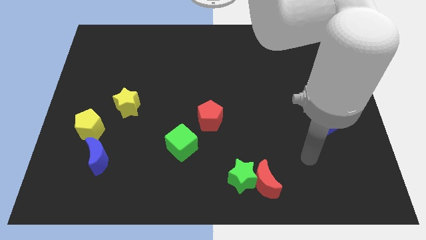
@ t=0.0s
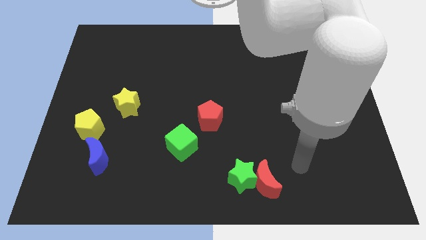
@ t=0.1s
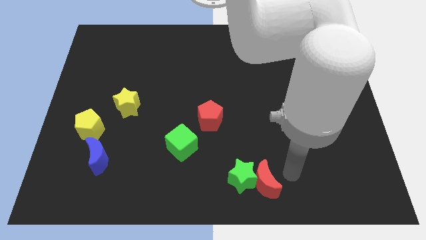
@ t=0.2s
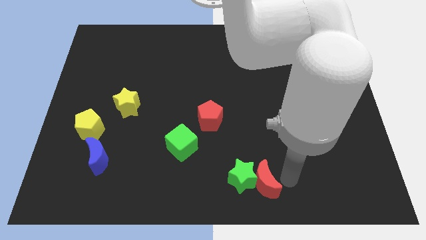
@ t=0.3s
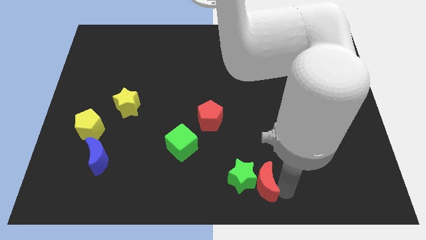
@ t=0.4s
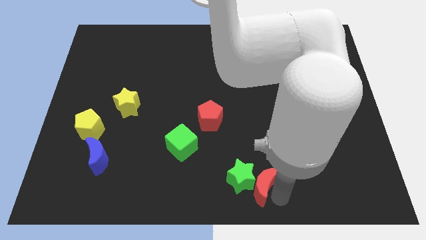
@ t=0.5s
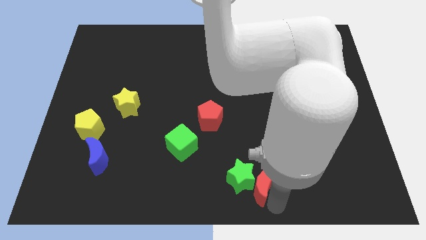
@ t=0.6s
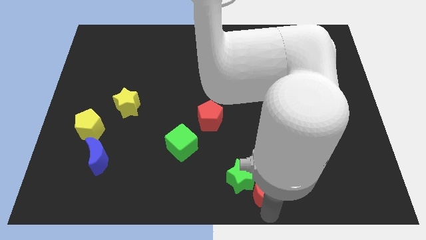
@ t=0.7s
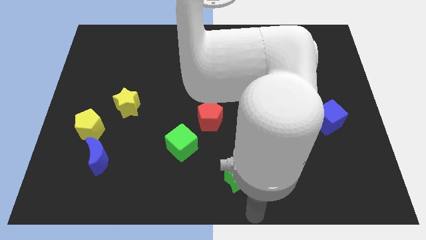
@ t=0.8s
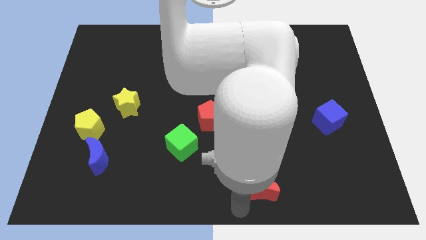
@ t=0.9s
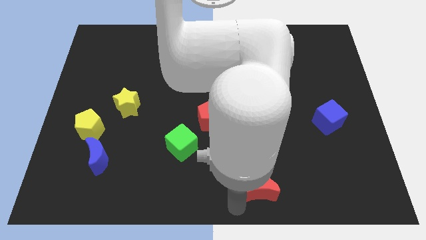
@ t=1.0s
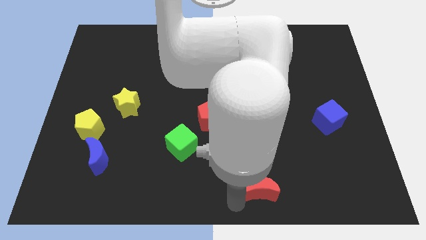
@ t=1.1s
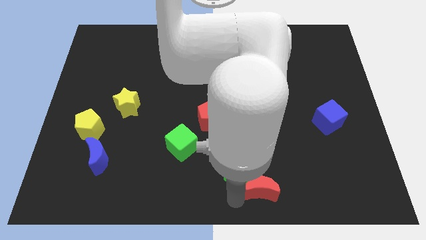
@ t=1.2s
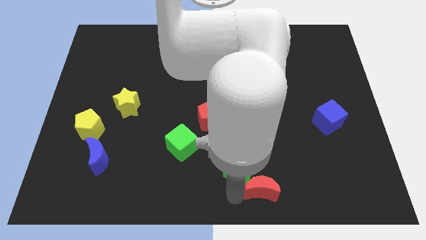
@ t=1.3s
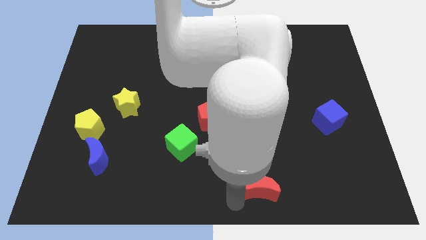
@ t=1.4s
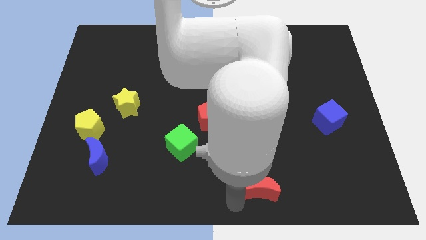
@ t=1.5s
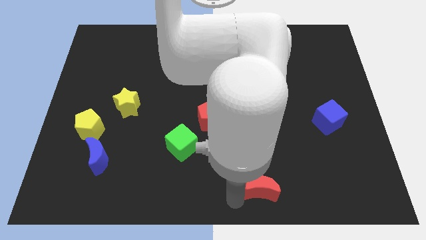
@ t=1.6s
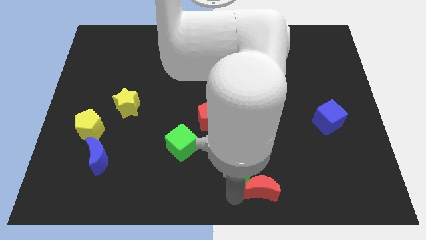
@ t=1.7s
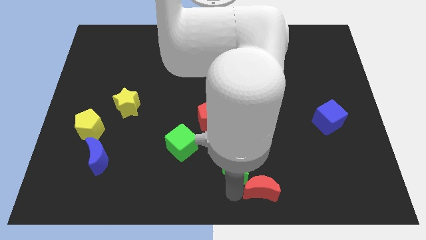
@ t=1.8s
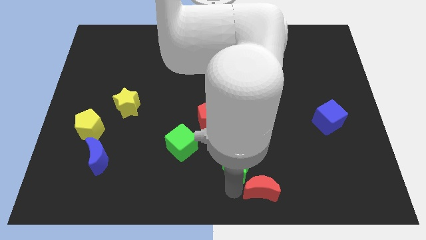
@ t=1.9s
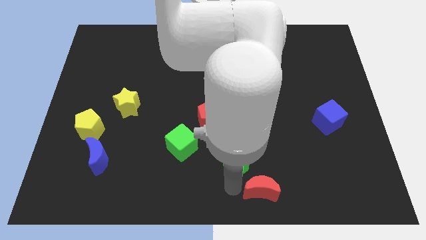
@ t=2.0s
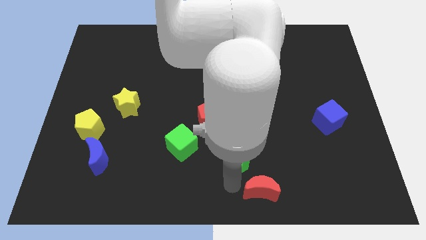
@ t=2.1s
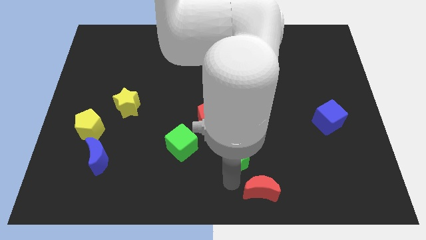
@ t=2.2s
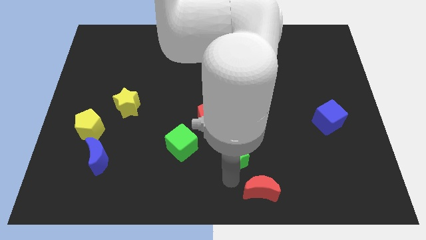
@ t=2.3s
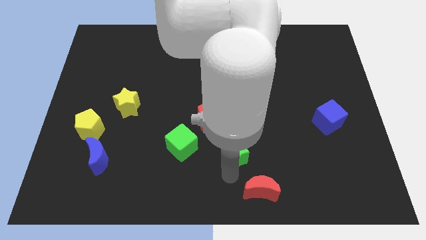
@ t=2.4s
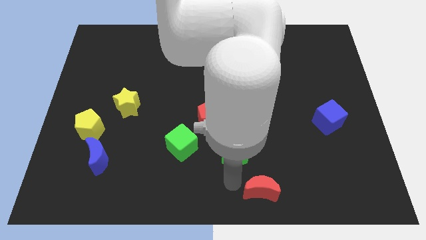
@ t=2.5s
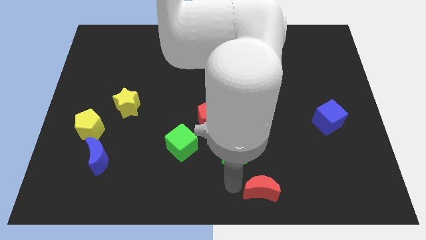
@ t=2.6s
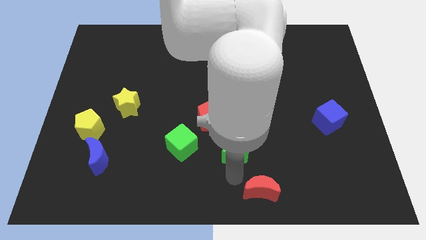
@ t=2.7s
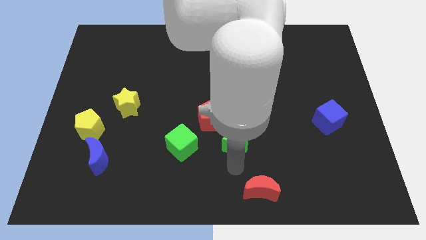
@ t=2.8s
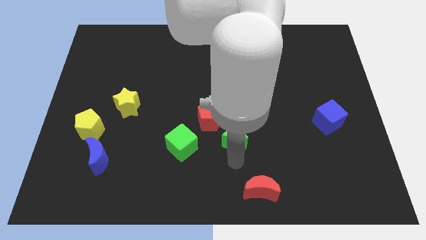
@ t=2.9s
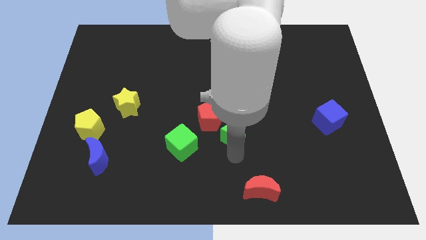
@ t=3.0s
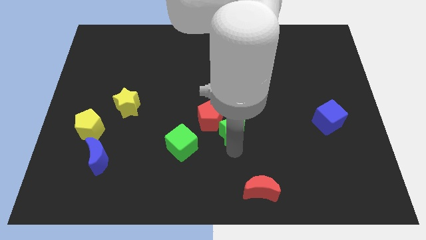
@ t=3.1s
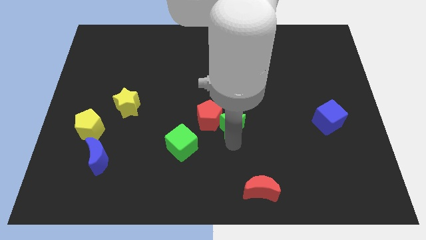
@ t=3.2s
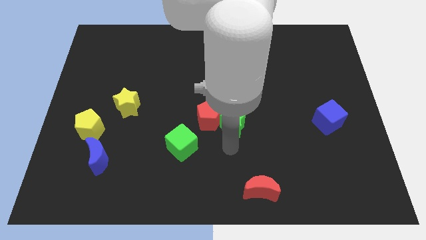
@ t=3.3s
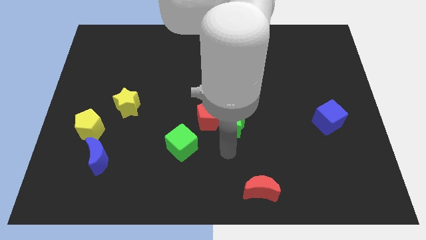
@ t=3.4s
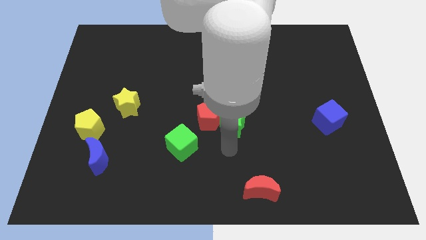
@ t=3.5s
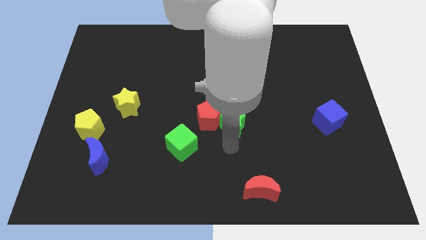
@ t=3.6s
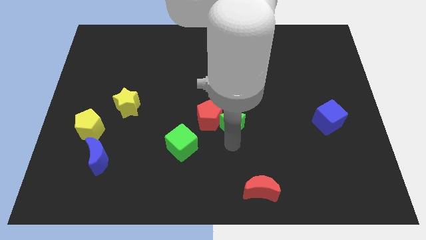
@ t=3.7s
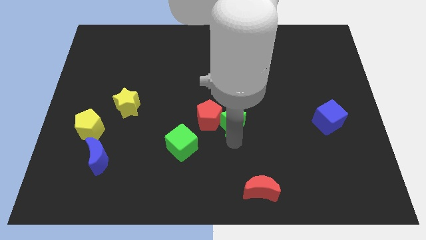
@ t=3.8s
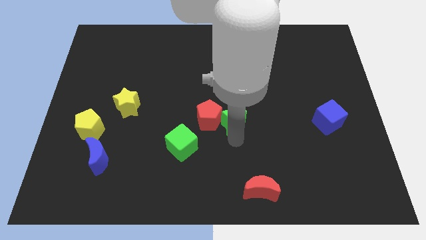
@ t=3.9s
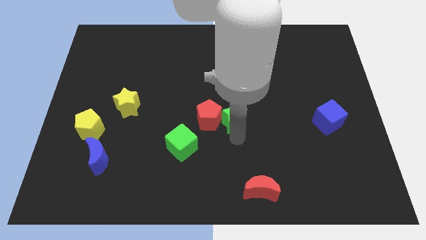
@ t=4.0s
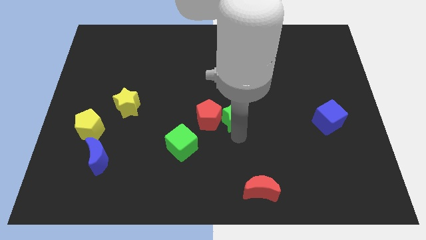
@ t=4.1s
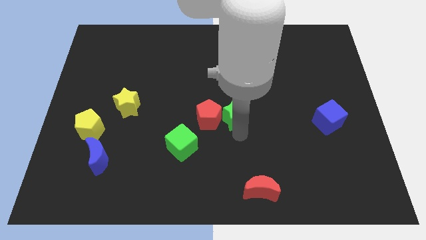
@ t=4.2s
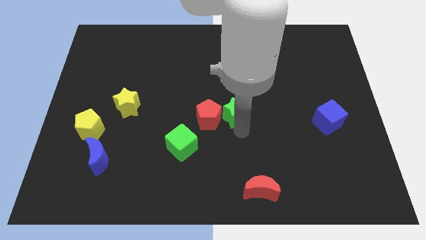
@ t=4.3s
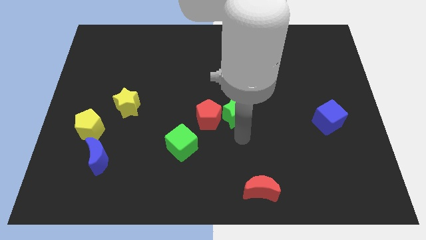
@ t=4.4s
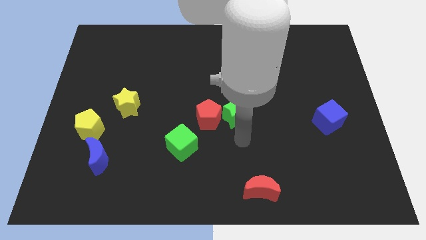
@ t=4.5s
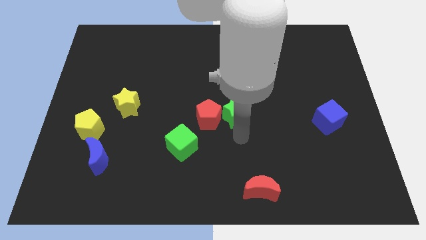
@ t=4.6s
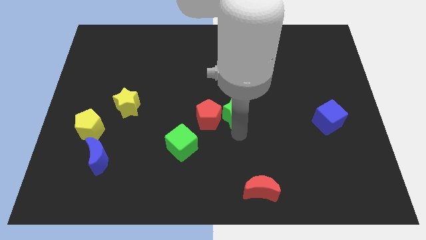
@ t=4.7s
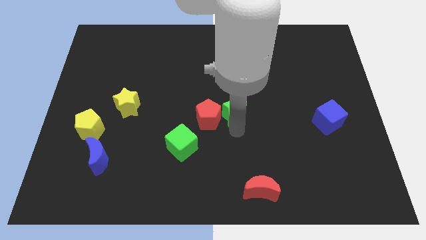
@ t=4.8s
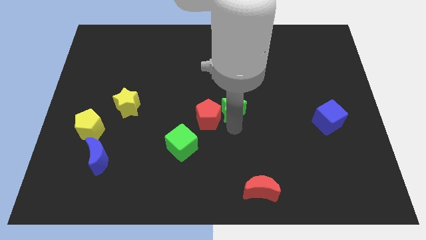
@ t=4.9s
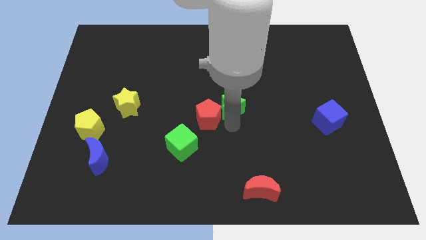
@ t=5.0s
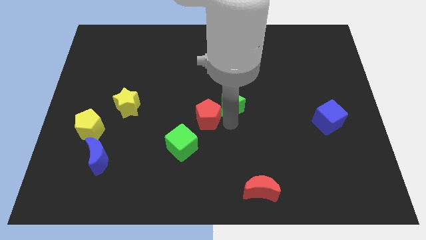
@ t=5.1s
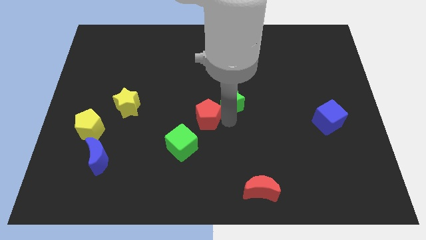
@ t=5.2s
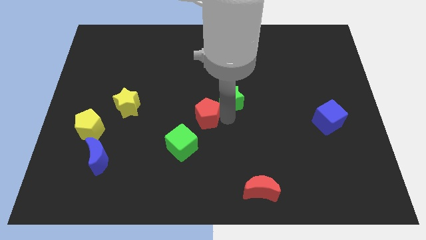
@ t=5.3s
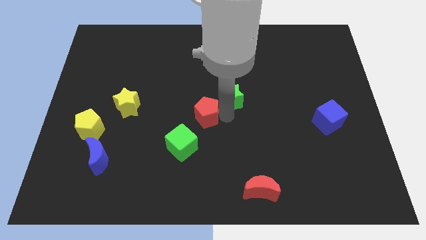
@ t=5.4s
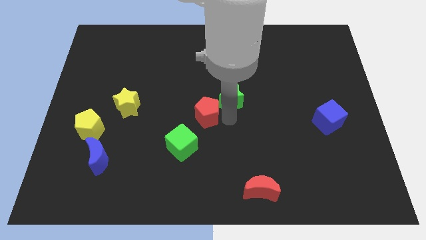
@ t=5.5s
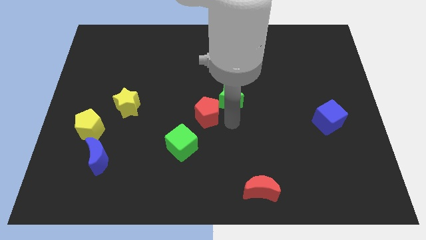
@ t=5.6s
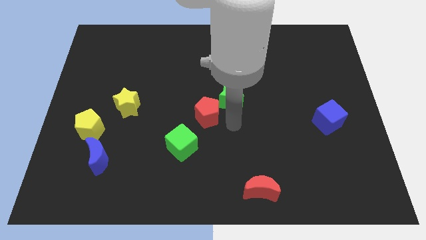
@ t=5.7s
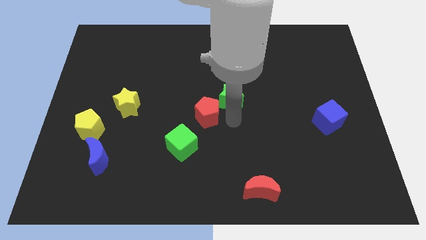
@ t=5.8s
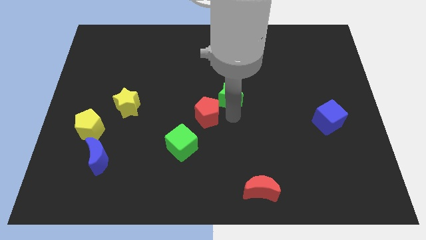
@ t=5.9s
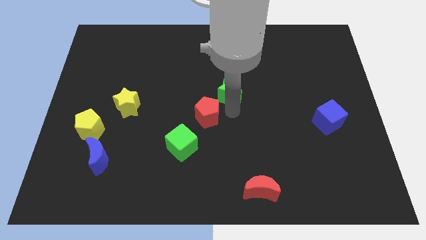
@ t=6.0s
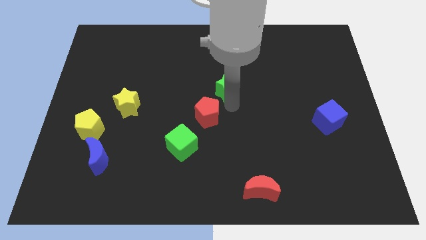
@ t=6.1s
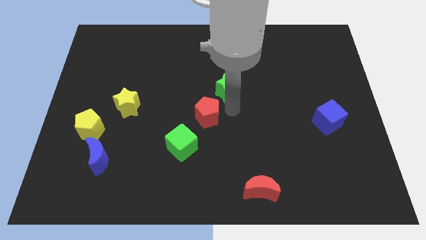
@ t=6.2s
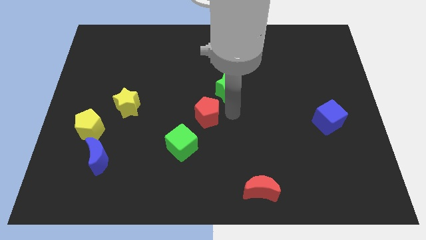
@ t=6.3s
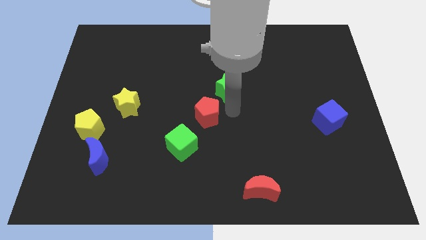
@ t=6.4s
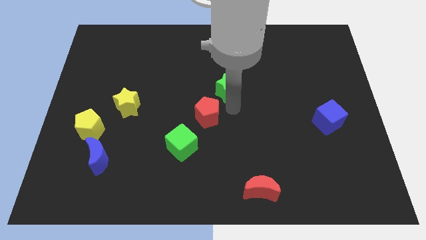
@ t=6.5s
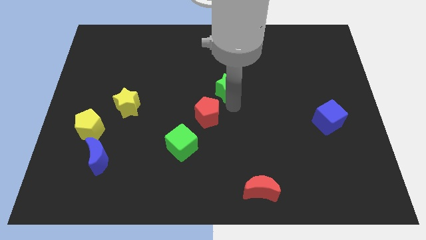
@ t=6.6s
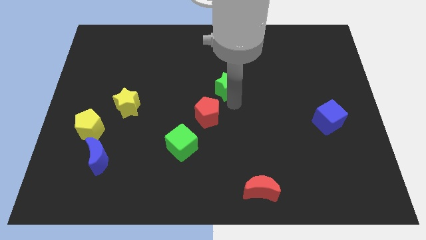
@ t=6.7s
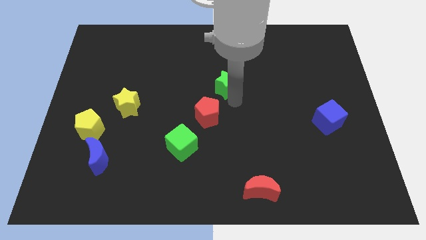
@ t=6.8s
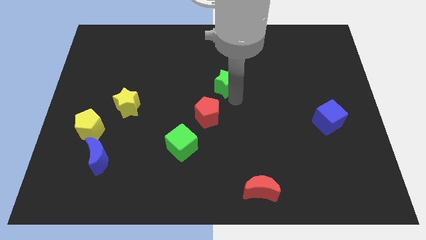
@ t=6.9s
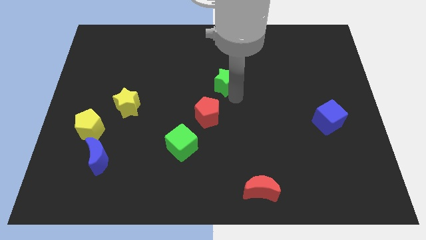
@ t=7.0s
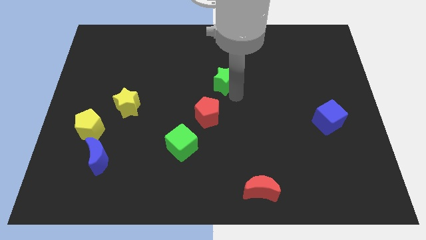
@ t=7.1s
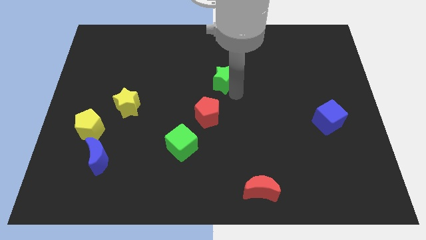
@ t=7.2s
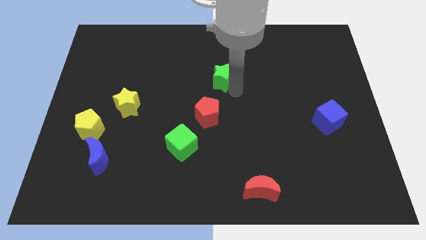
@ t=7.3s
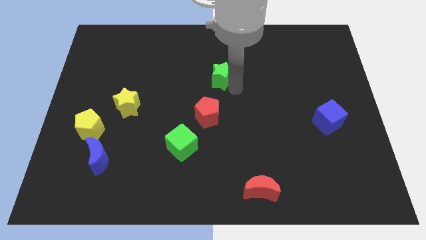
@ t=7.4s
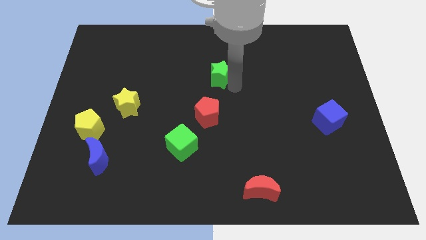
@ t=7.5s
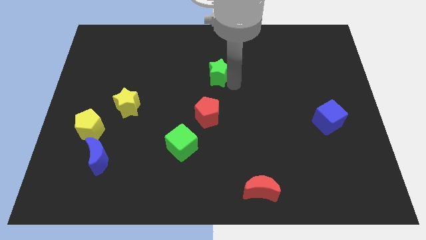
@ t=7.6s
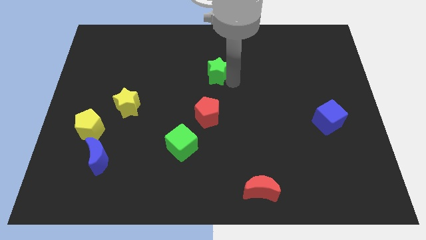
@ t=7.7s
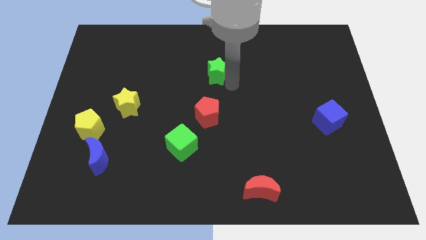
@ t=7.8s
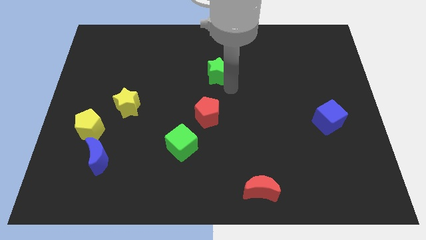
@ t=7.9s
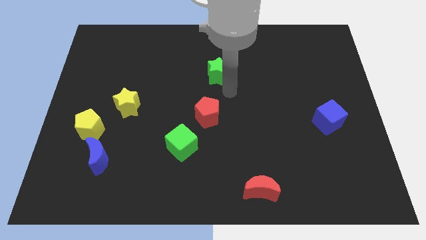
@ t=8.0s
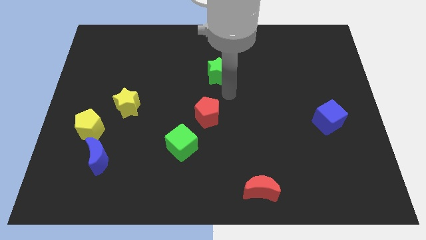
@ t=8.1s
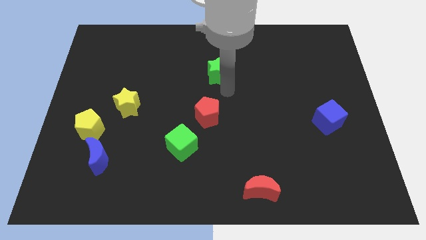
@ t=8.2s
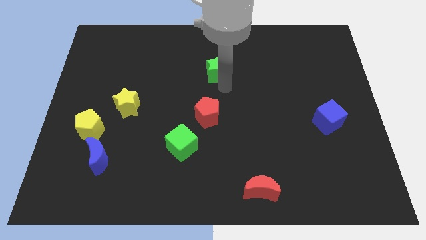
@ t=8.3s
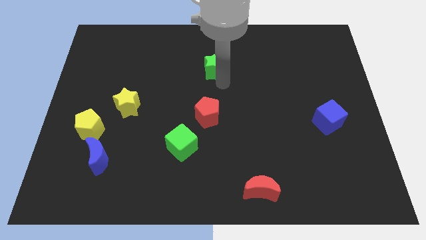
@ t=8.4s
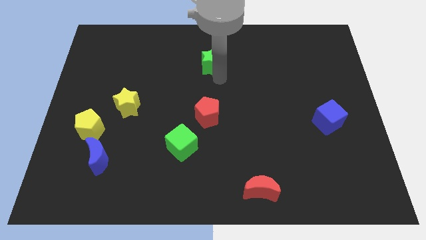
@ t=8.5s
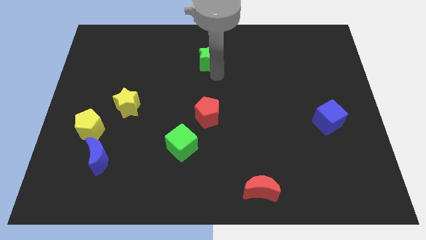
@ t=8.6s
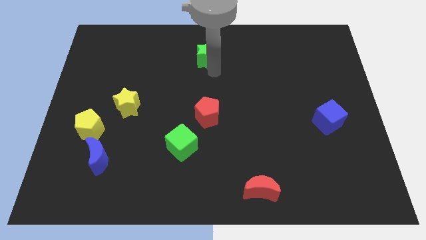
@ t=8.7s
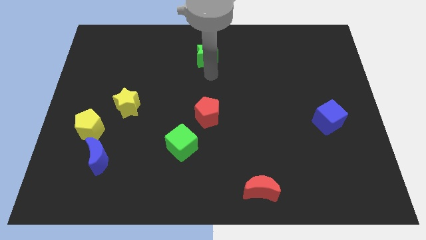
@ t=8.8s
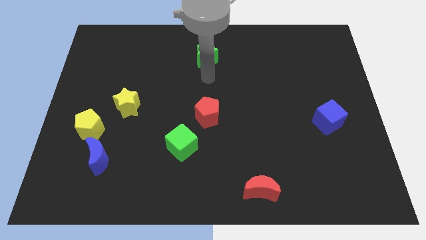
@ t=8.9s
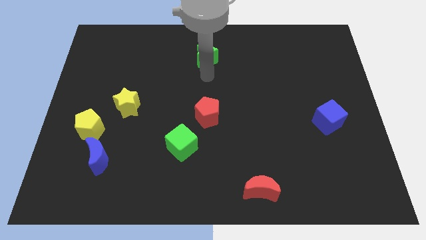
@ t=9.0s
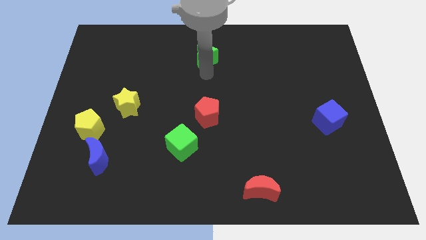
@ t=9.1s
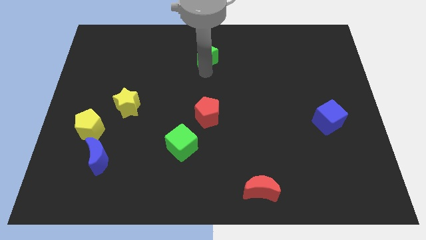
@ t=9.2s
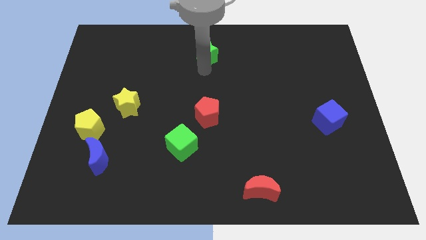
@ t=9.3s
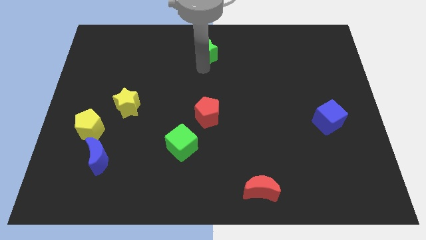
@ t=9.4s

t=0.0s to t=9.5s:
put the green star to the top
